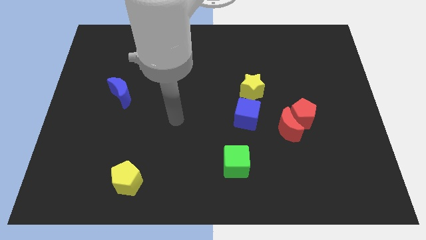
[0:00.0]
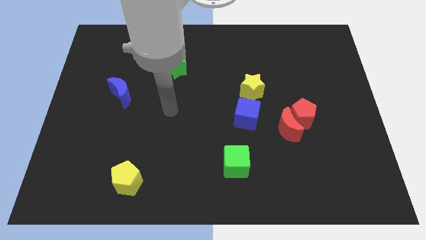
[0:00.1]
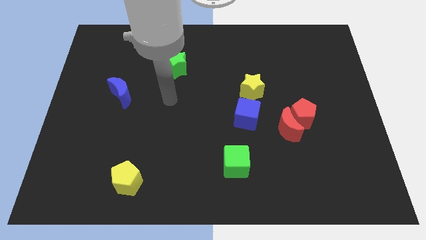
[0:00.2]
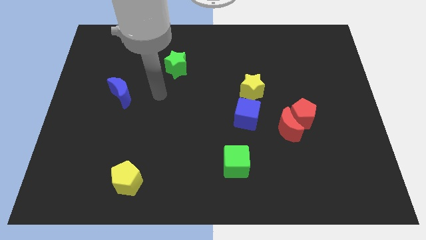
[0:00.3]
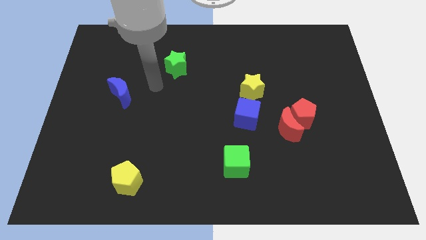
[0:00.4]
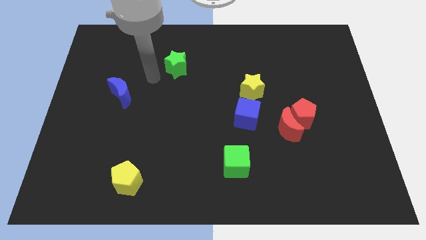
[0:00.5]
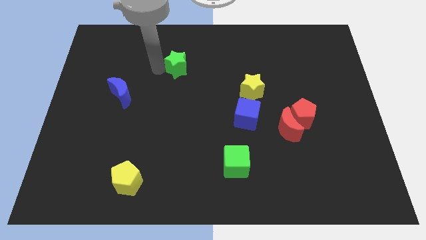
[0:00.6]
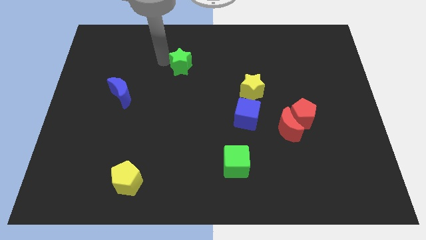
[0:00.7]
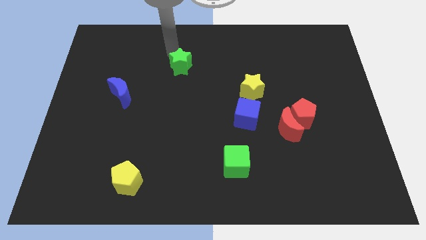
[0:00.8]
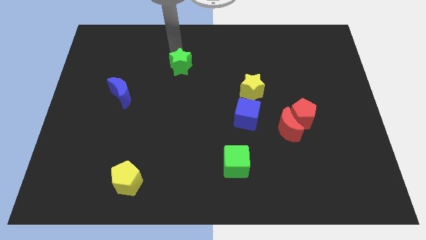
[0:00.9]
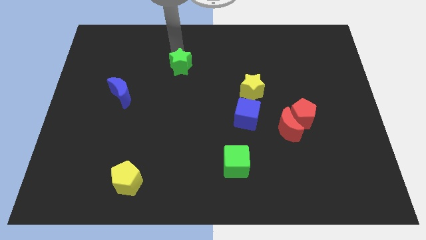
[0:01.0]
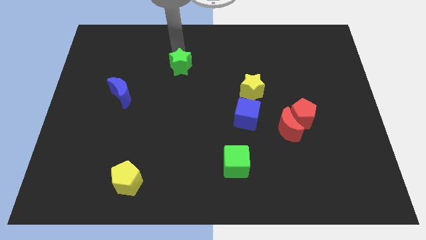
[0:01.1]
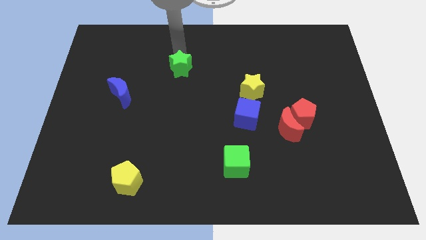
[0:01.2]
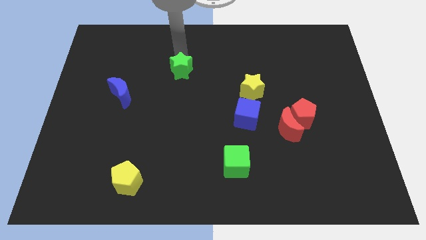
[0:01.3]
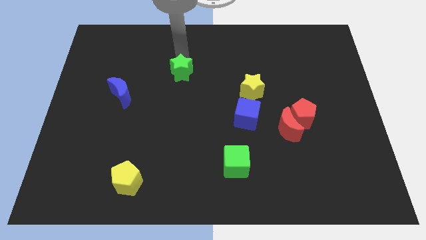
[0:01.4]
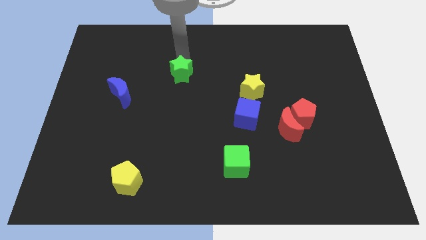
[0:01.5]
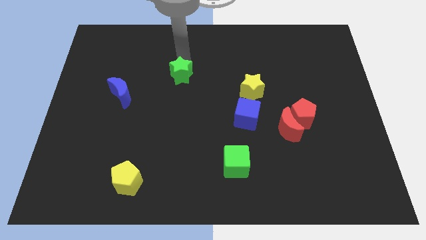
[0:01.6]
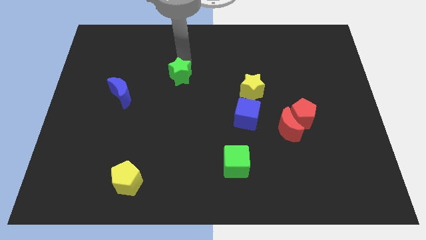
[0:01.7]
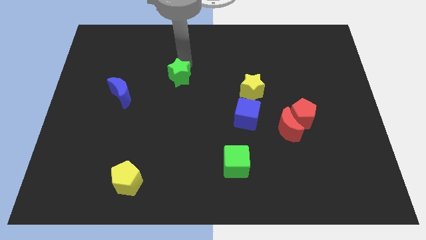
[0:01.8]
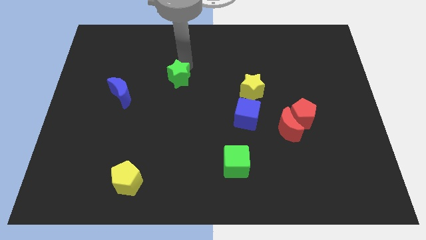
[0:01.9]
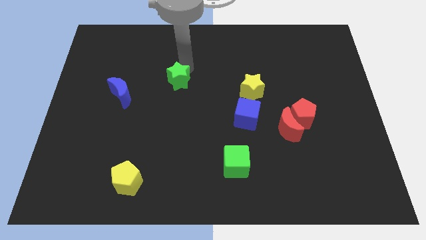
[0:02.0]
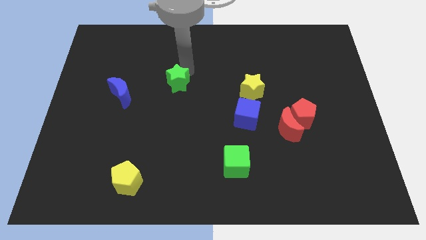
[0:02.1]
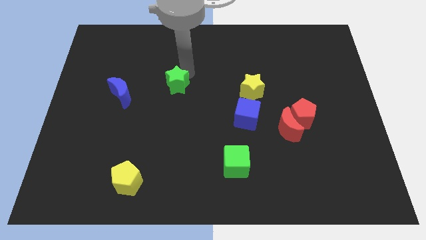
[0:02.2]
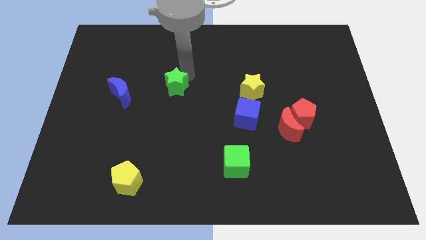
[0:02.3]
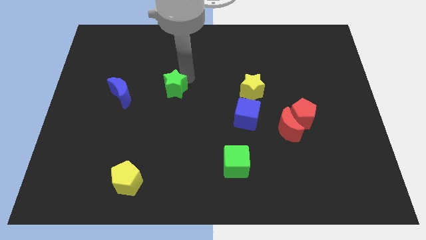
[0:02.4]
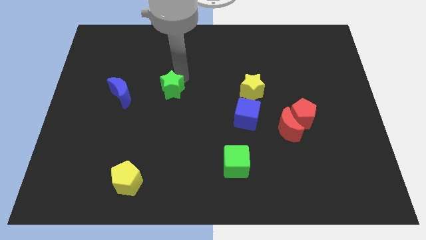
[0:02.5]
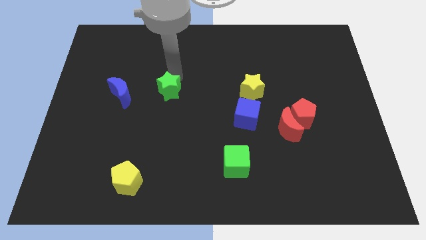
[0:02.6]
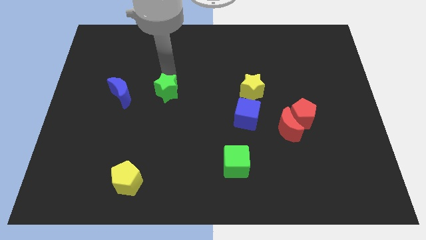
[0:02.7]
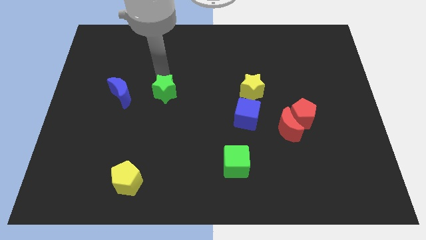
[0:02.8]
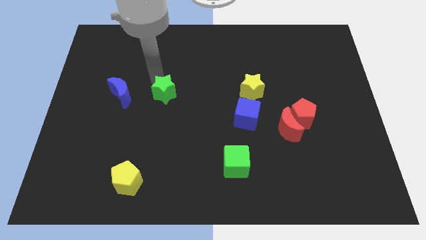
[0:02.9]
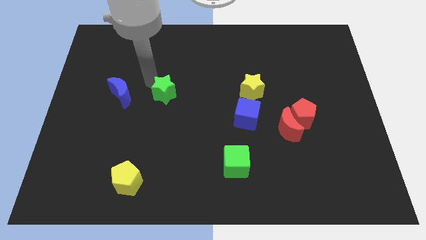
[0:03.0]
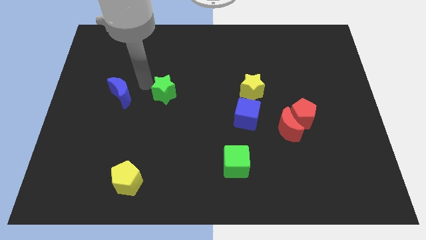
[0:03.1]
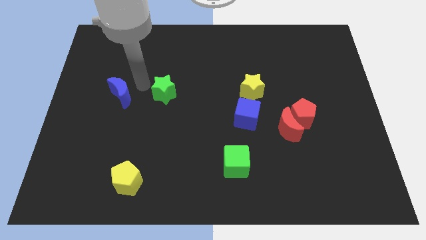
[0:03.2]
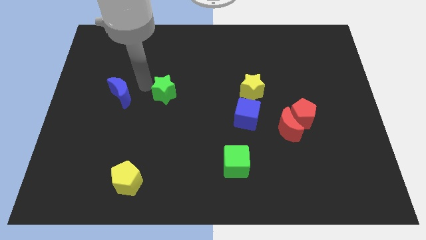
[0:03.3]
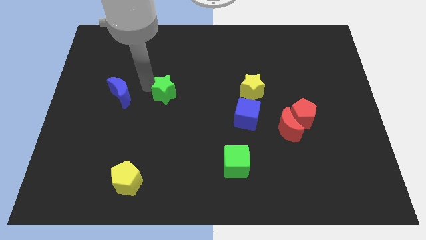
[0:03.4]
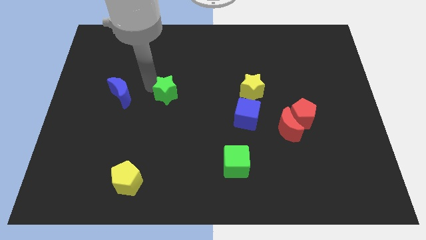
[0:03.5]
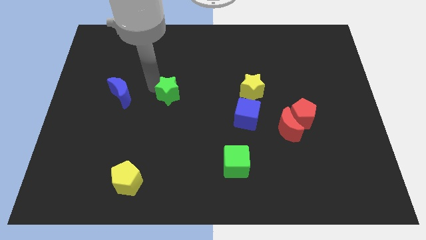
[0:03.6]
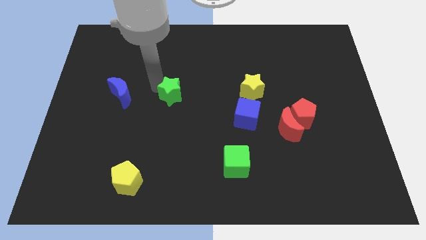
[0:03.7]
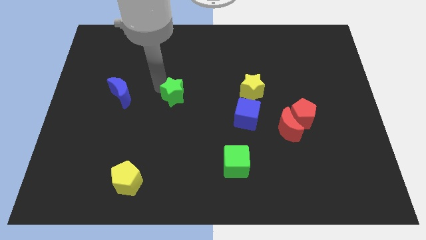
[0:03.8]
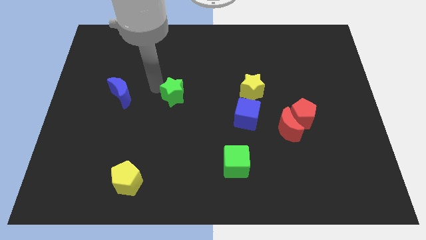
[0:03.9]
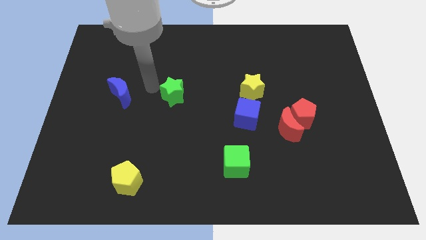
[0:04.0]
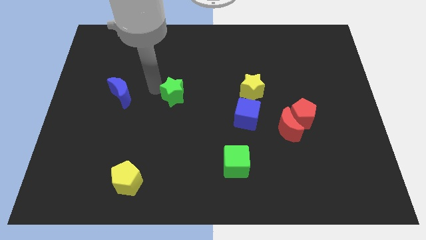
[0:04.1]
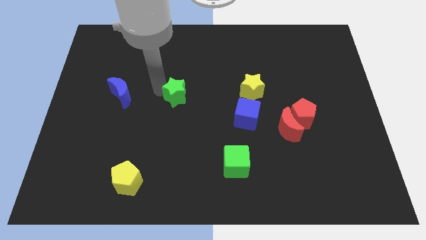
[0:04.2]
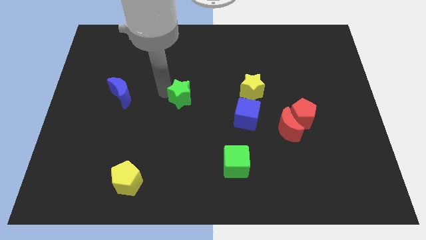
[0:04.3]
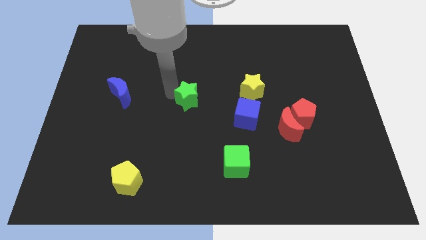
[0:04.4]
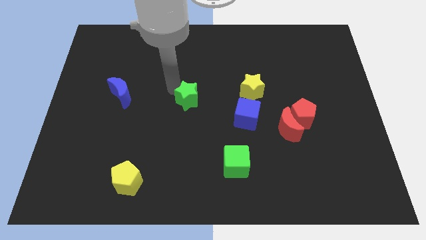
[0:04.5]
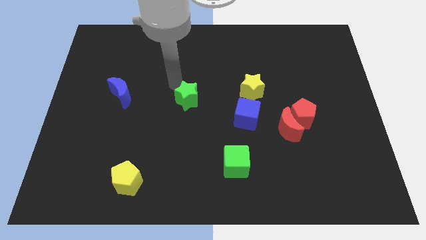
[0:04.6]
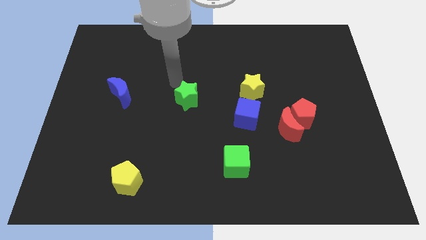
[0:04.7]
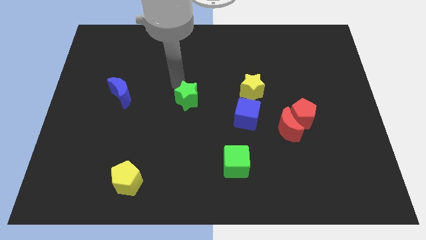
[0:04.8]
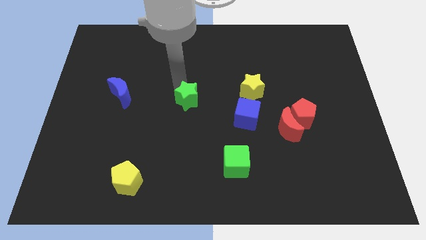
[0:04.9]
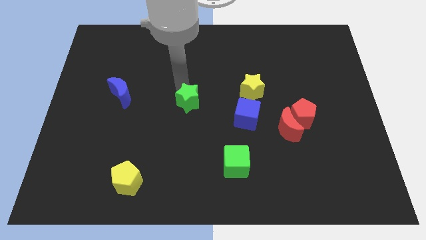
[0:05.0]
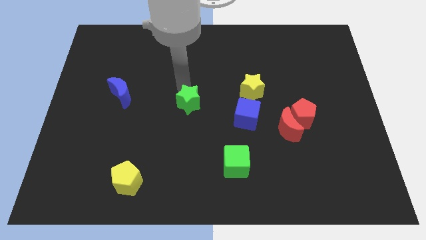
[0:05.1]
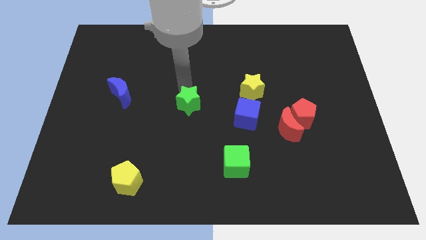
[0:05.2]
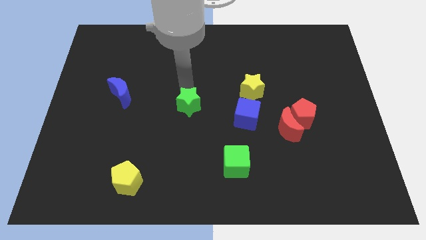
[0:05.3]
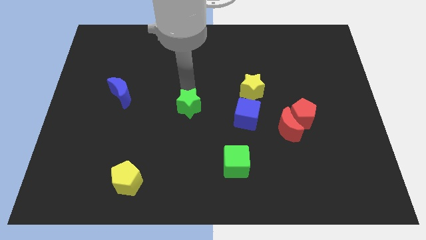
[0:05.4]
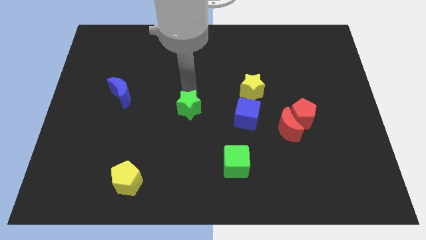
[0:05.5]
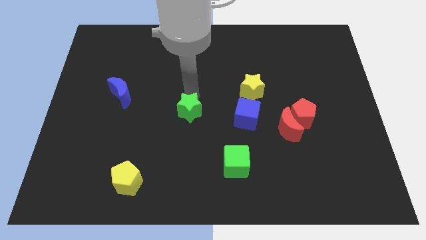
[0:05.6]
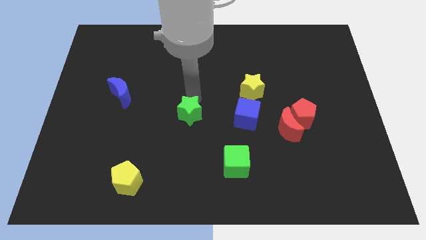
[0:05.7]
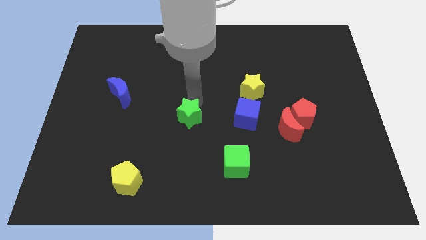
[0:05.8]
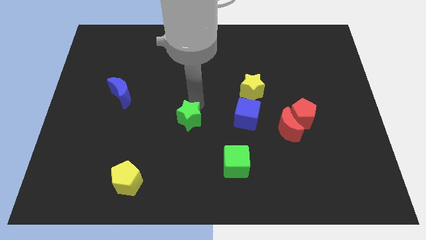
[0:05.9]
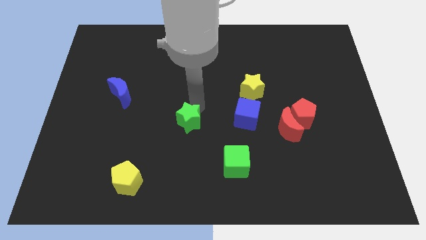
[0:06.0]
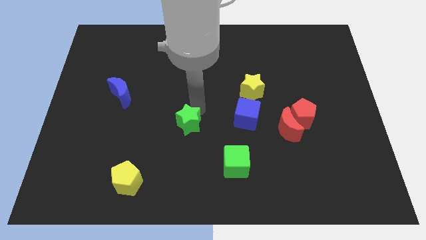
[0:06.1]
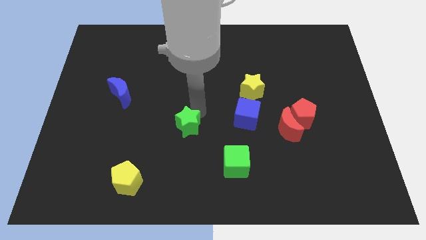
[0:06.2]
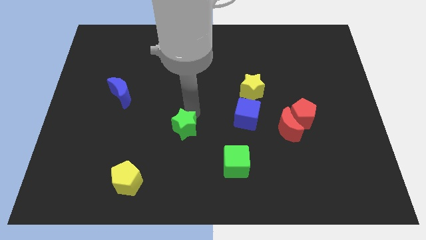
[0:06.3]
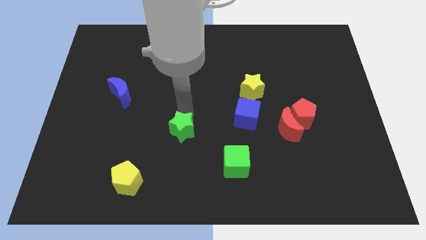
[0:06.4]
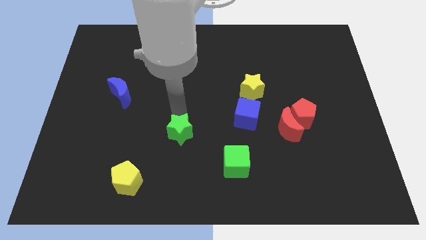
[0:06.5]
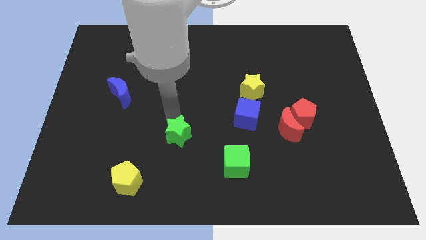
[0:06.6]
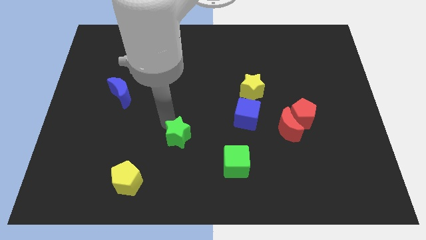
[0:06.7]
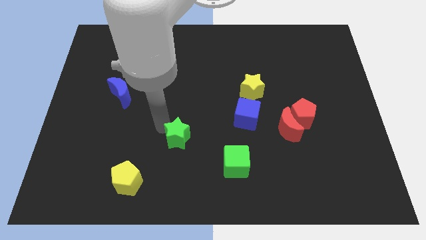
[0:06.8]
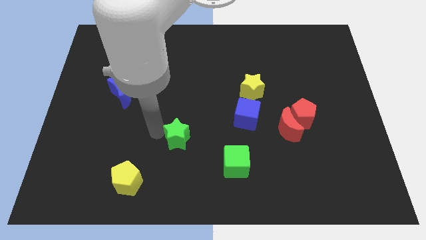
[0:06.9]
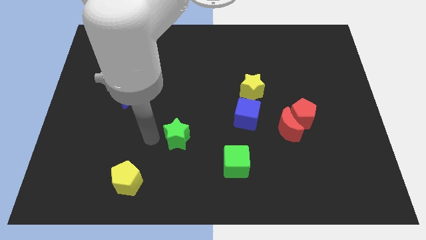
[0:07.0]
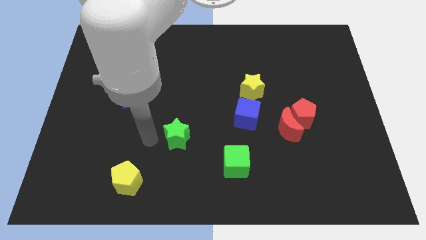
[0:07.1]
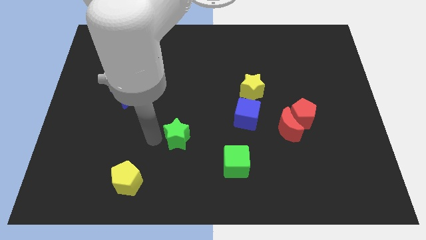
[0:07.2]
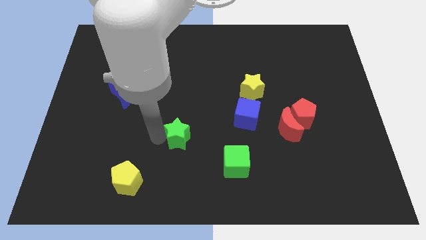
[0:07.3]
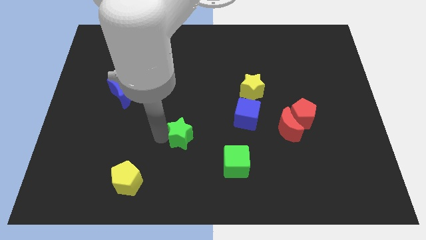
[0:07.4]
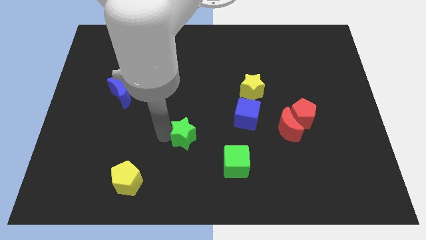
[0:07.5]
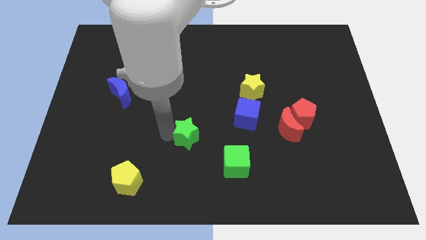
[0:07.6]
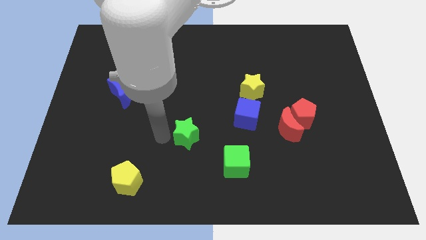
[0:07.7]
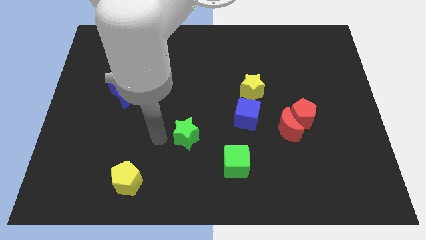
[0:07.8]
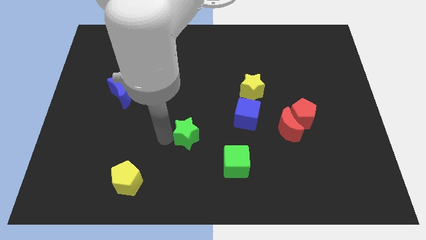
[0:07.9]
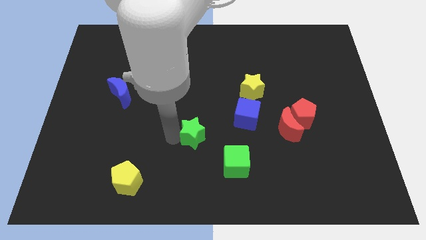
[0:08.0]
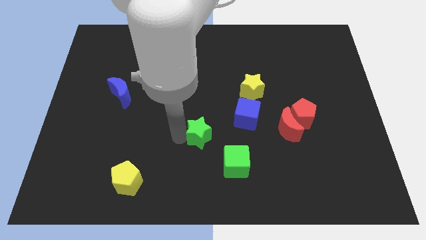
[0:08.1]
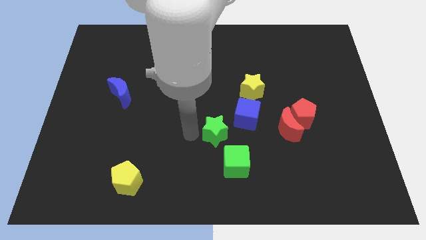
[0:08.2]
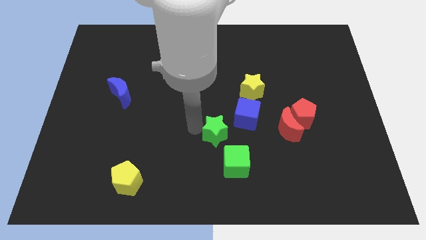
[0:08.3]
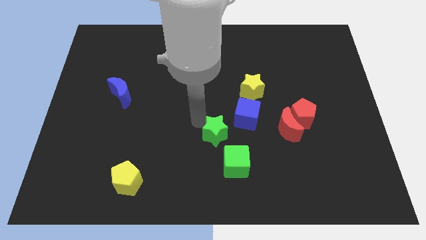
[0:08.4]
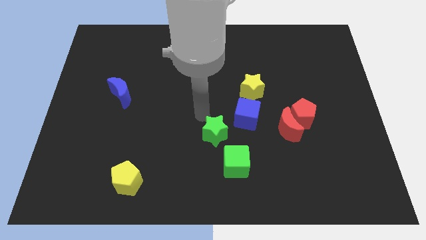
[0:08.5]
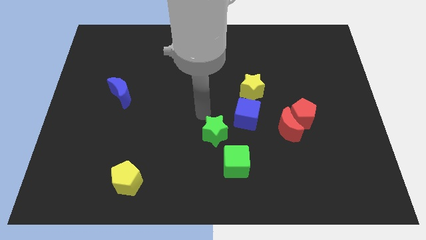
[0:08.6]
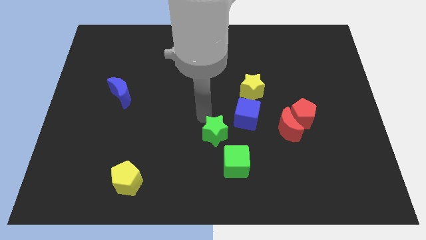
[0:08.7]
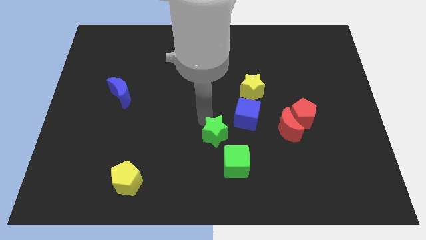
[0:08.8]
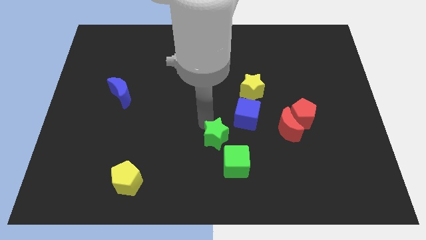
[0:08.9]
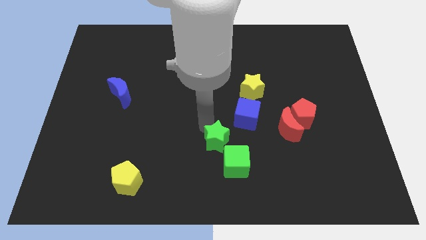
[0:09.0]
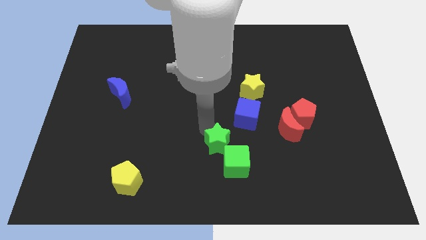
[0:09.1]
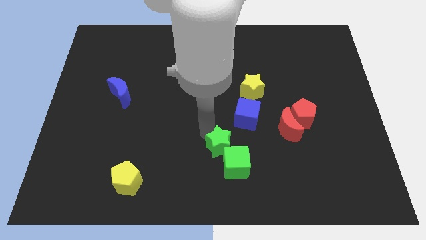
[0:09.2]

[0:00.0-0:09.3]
slide the green star to the green cube
